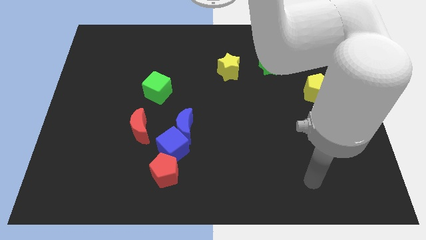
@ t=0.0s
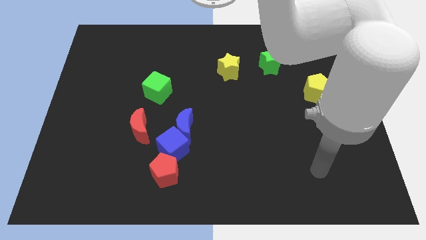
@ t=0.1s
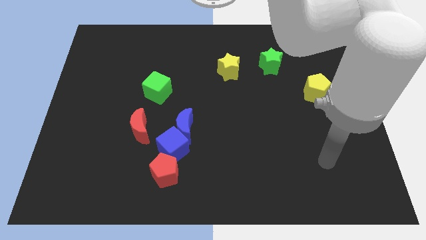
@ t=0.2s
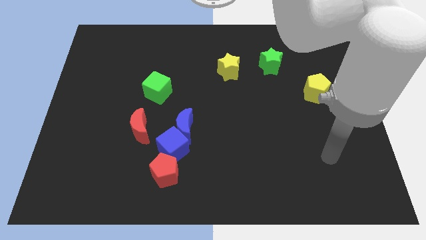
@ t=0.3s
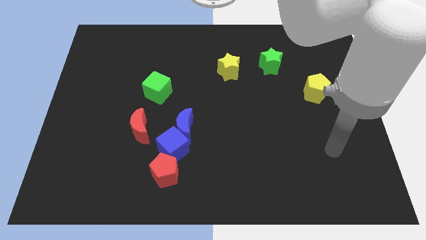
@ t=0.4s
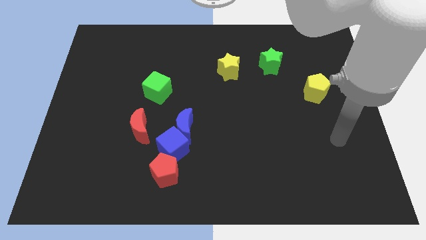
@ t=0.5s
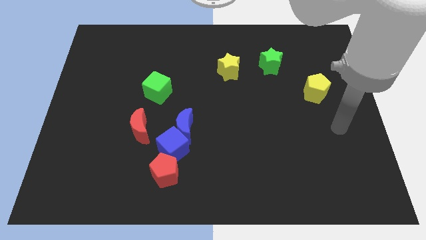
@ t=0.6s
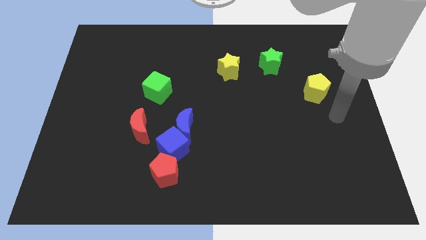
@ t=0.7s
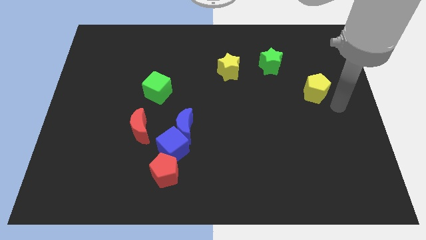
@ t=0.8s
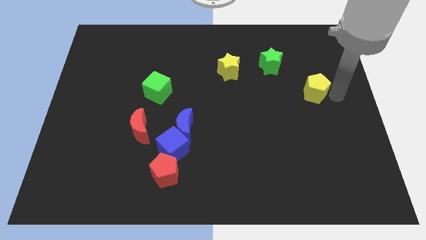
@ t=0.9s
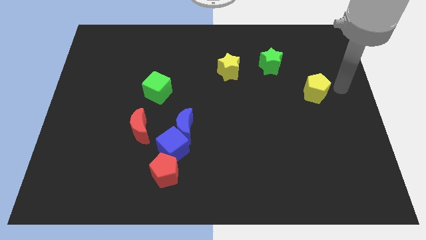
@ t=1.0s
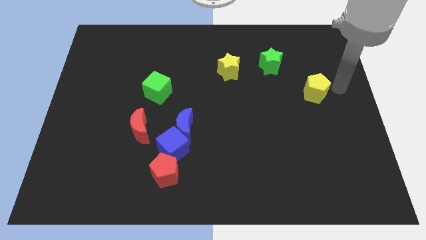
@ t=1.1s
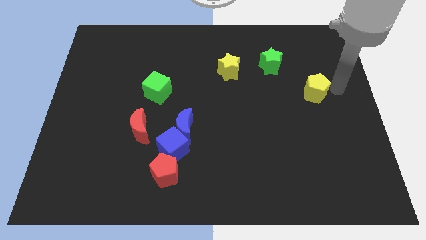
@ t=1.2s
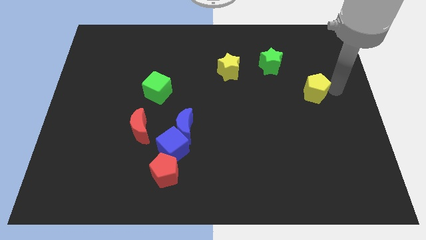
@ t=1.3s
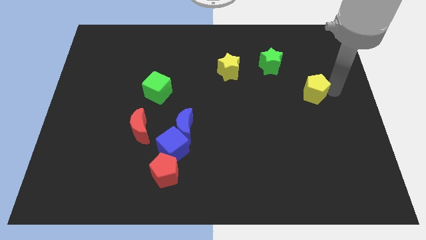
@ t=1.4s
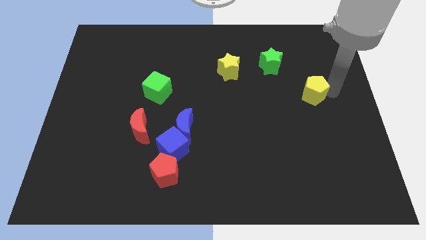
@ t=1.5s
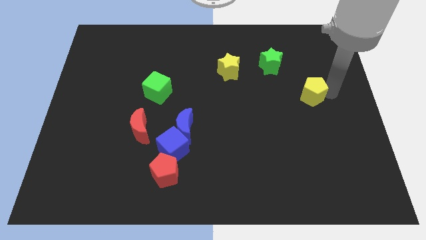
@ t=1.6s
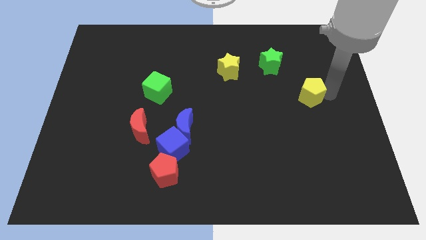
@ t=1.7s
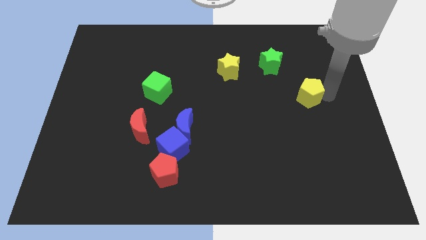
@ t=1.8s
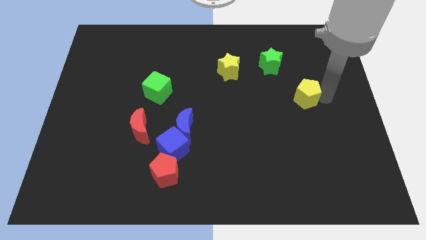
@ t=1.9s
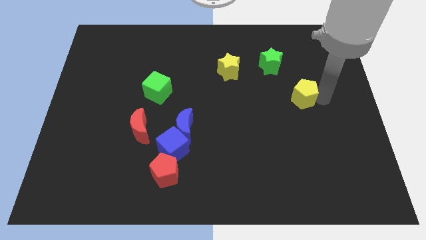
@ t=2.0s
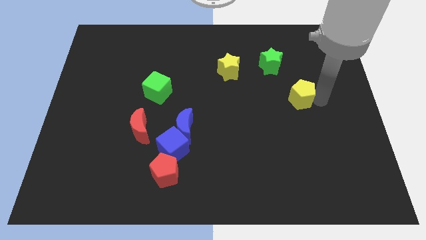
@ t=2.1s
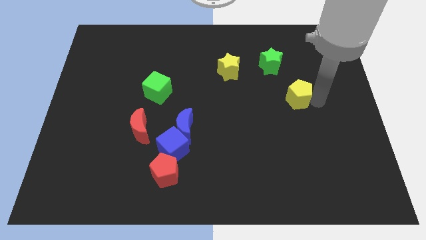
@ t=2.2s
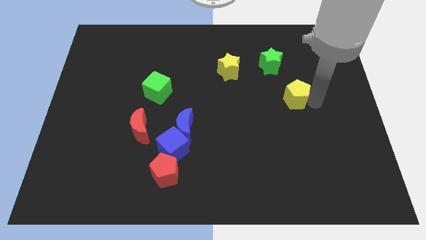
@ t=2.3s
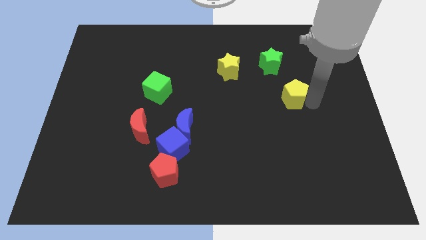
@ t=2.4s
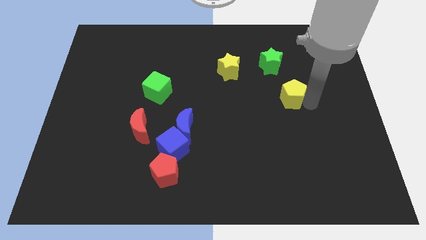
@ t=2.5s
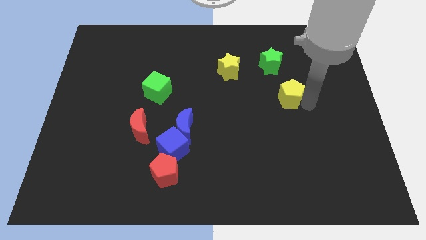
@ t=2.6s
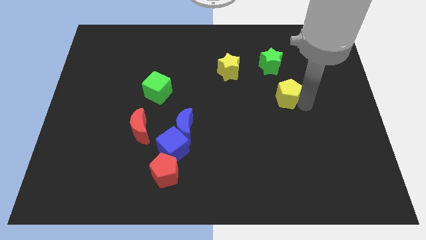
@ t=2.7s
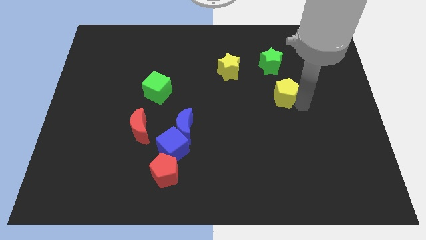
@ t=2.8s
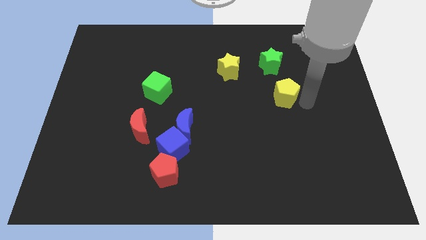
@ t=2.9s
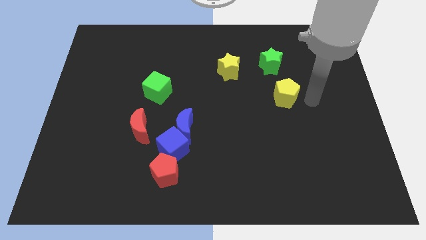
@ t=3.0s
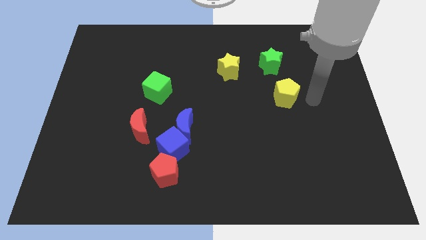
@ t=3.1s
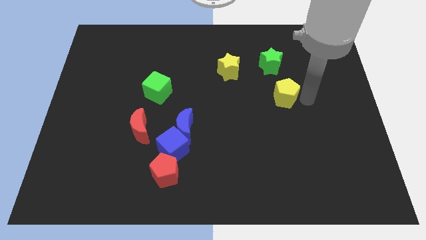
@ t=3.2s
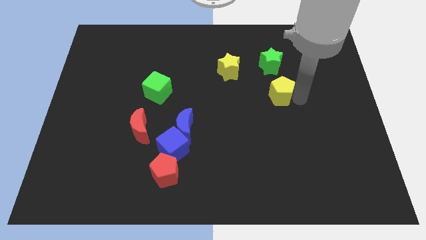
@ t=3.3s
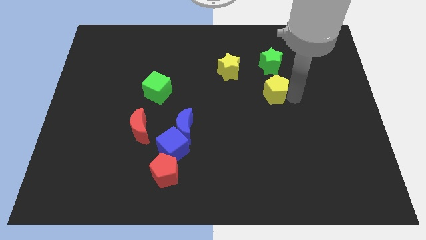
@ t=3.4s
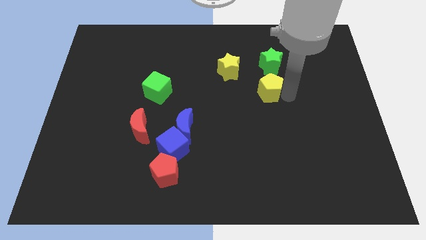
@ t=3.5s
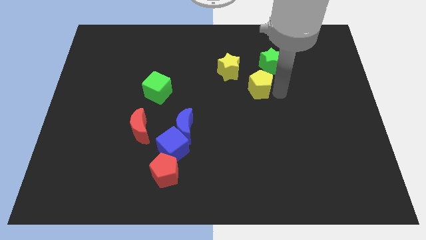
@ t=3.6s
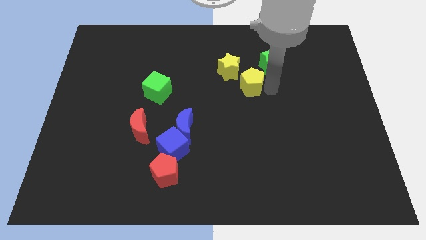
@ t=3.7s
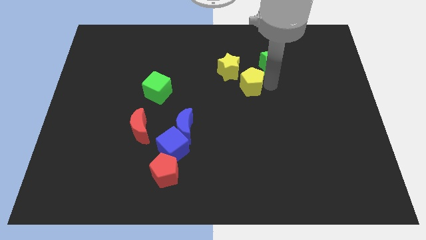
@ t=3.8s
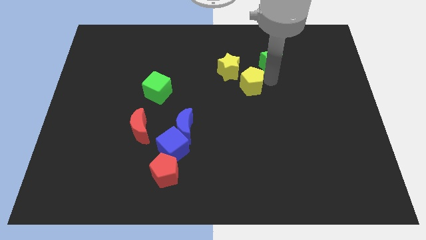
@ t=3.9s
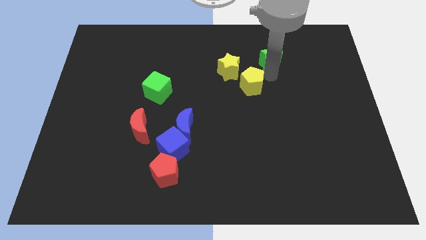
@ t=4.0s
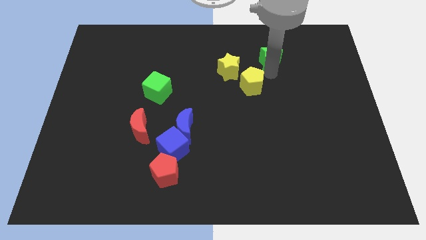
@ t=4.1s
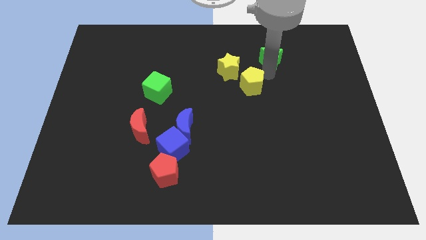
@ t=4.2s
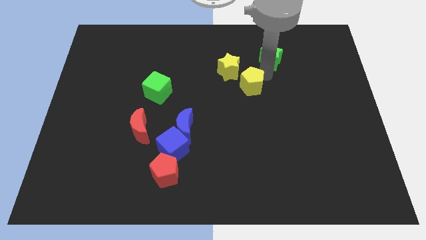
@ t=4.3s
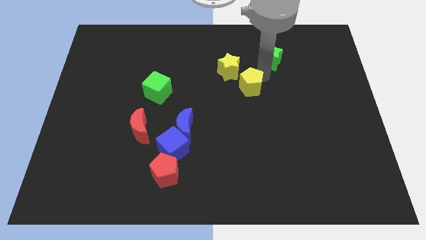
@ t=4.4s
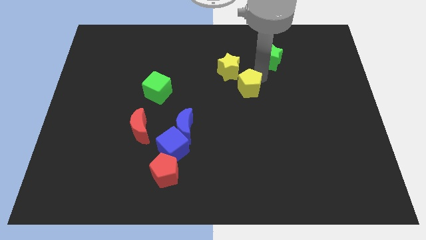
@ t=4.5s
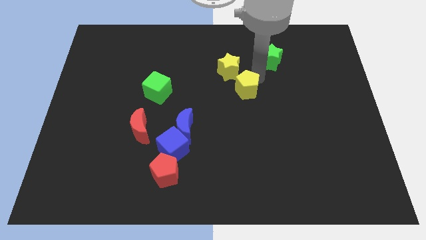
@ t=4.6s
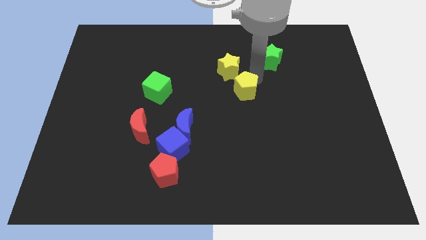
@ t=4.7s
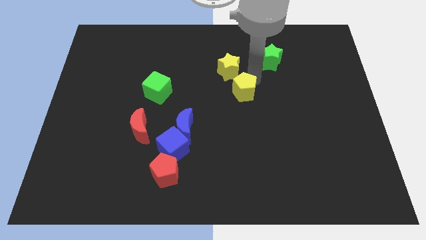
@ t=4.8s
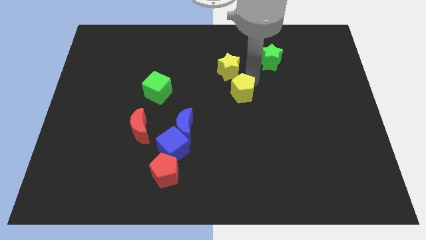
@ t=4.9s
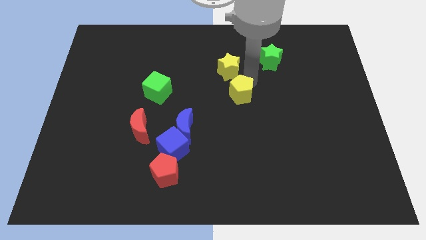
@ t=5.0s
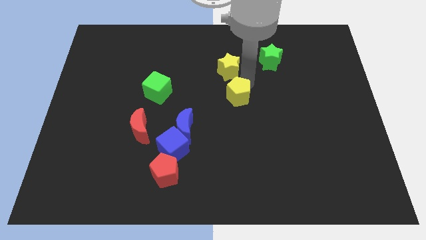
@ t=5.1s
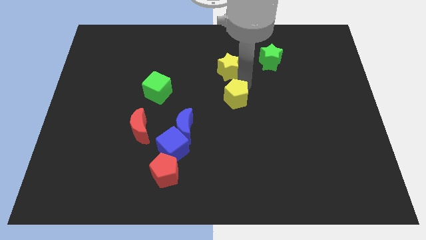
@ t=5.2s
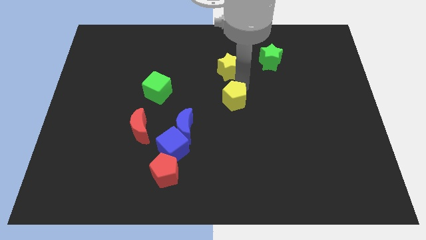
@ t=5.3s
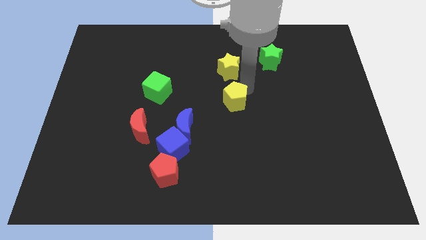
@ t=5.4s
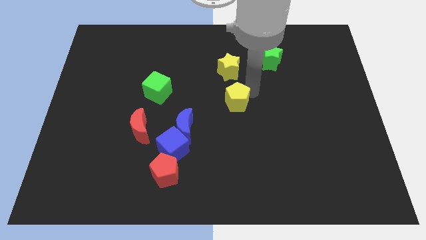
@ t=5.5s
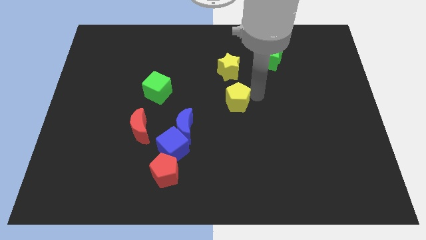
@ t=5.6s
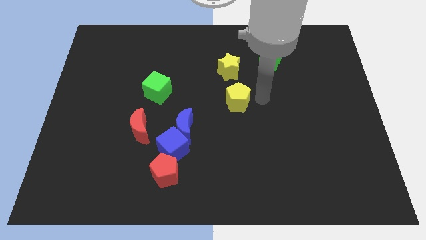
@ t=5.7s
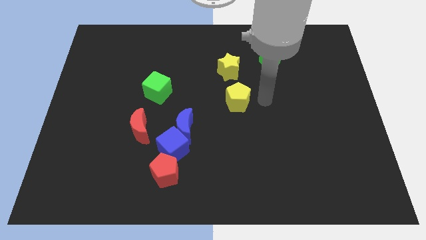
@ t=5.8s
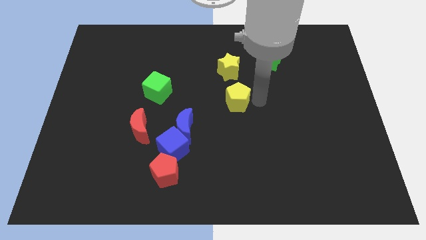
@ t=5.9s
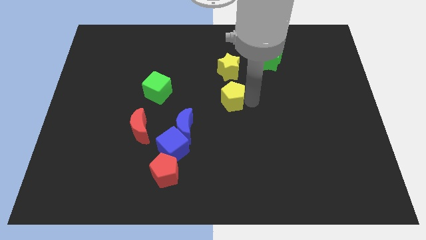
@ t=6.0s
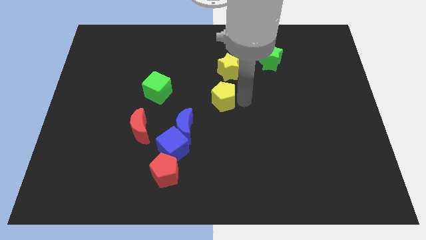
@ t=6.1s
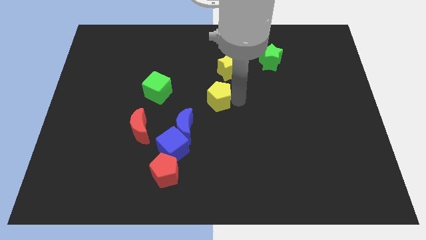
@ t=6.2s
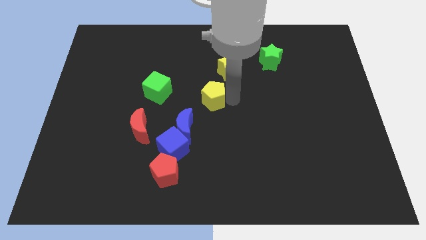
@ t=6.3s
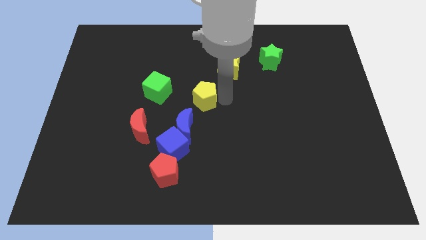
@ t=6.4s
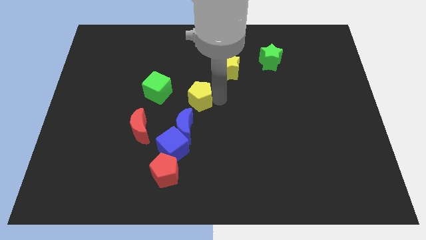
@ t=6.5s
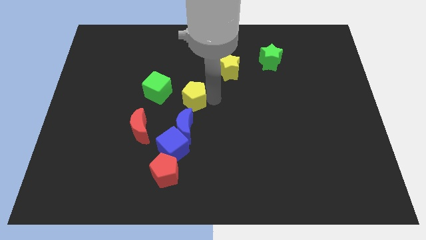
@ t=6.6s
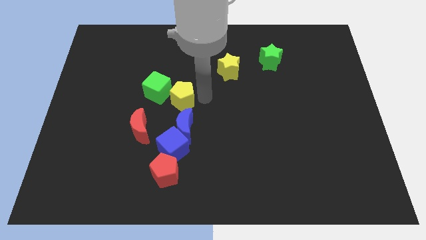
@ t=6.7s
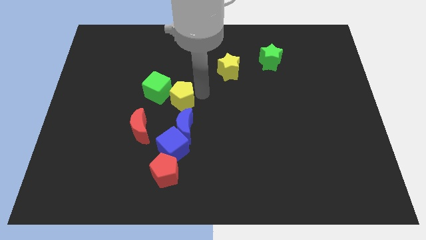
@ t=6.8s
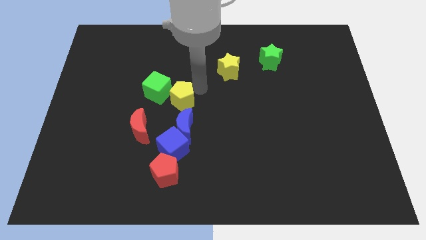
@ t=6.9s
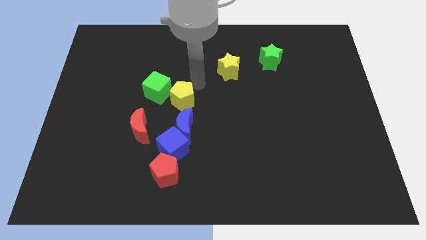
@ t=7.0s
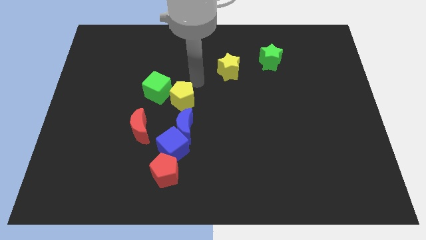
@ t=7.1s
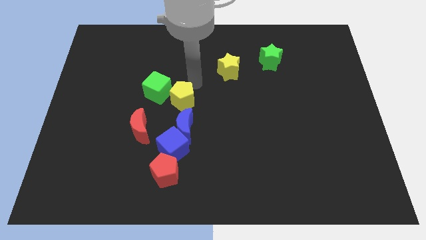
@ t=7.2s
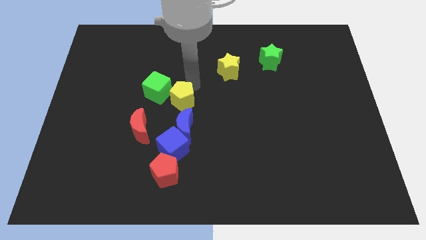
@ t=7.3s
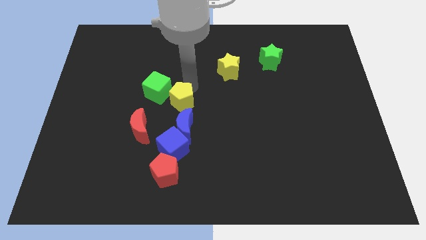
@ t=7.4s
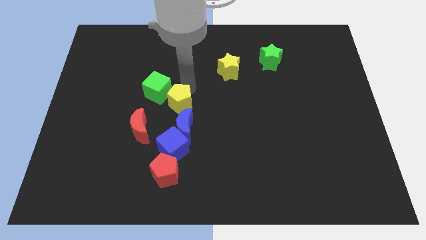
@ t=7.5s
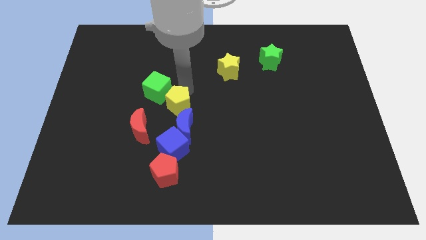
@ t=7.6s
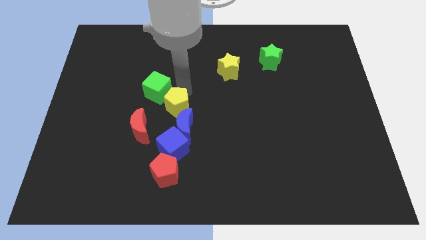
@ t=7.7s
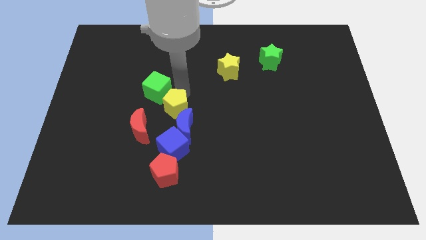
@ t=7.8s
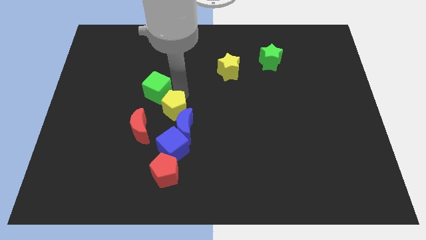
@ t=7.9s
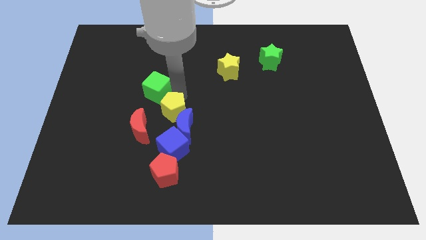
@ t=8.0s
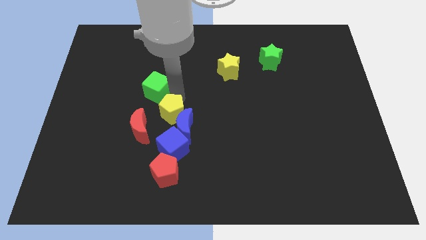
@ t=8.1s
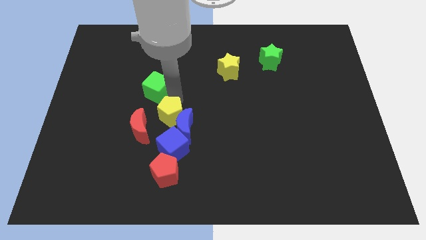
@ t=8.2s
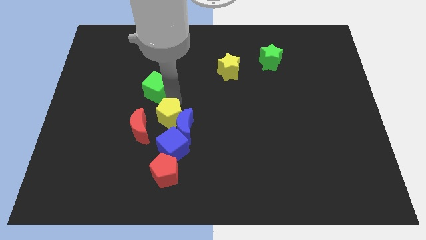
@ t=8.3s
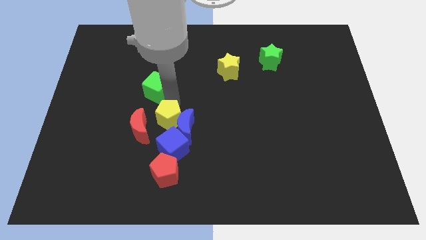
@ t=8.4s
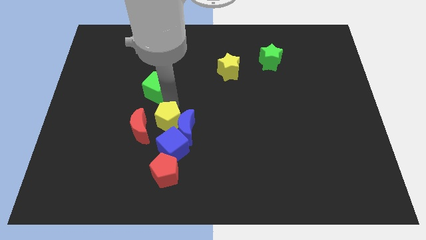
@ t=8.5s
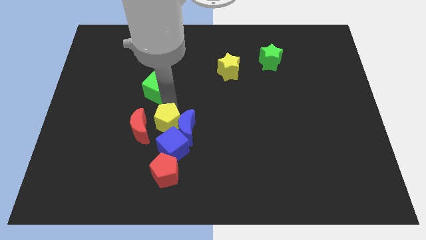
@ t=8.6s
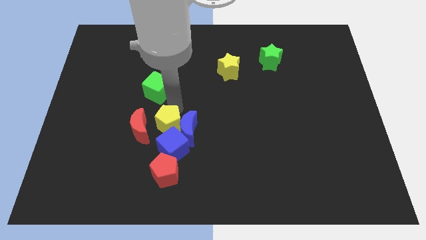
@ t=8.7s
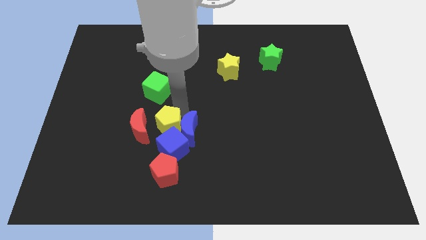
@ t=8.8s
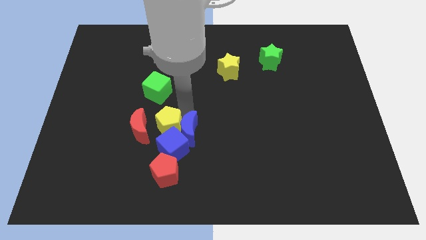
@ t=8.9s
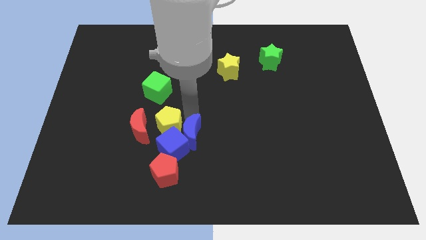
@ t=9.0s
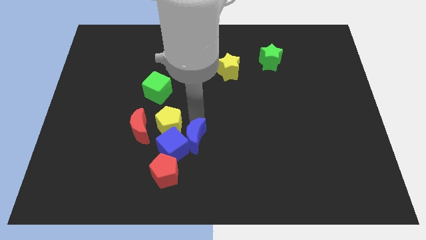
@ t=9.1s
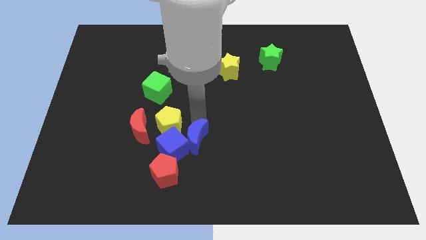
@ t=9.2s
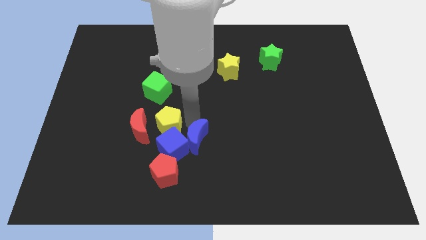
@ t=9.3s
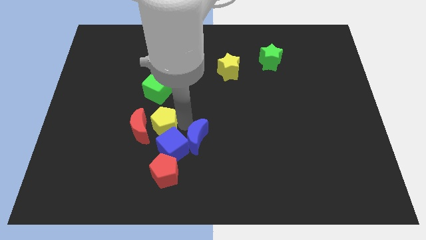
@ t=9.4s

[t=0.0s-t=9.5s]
push the yellow pentagon next to the red moon
